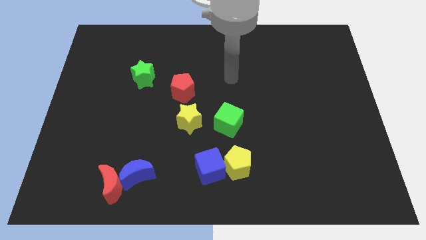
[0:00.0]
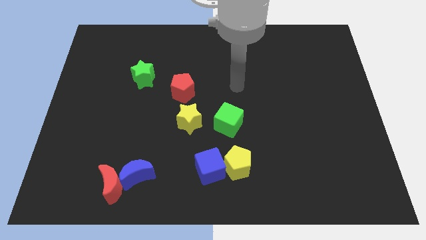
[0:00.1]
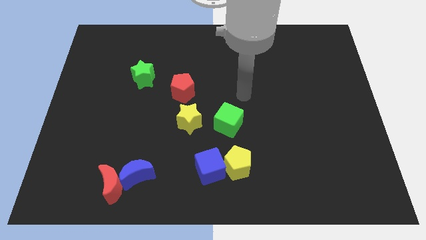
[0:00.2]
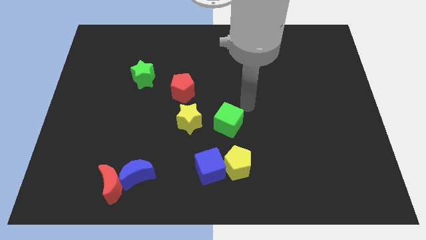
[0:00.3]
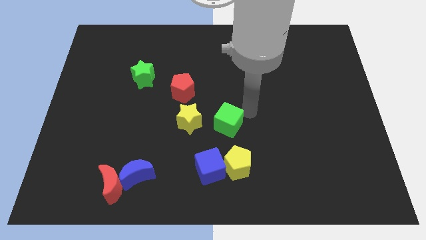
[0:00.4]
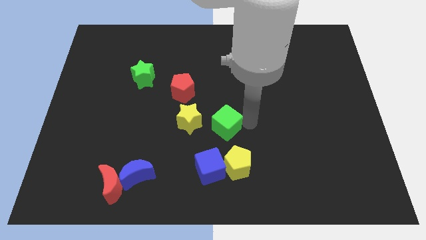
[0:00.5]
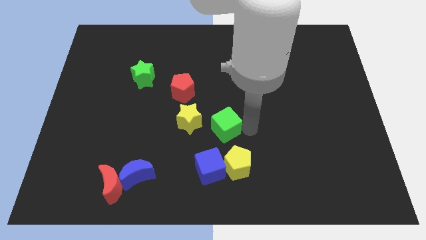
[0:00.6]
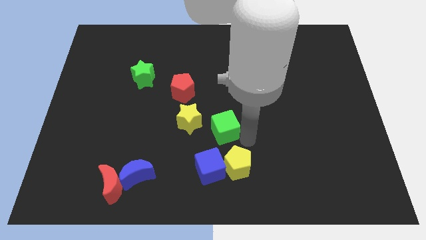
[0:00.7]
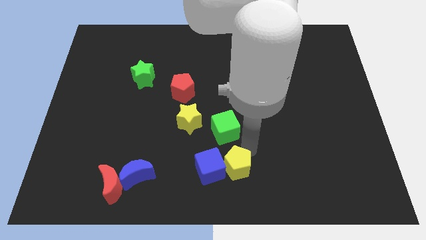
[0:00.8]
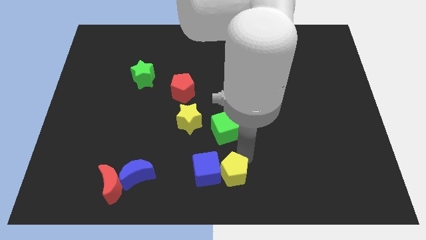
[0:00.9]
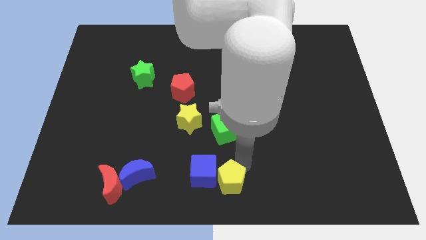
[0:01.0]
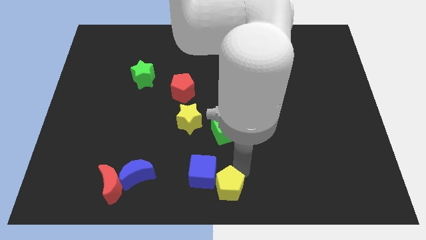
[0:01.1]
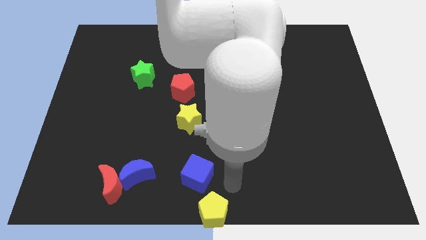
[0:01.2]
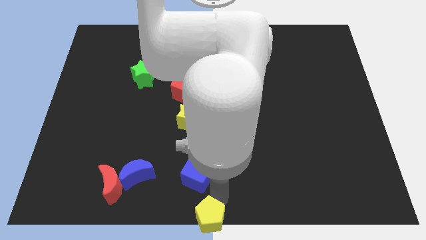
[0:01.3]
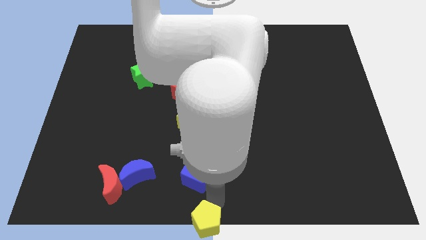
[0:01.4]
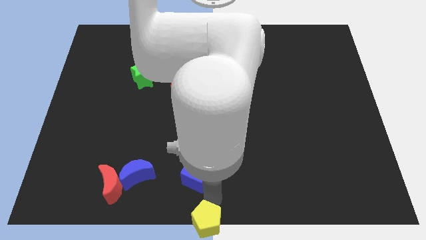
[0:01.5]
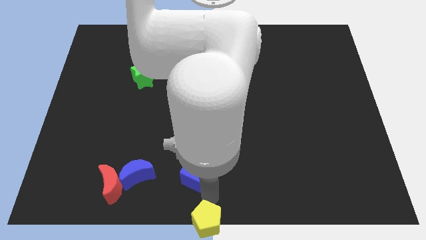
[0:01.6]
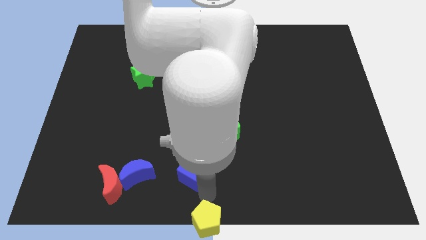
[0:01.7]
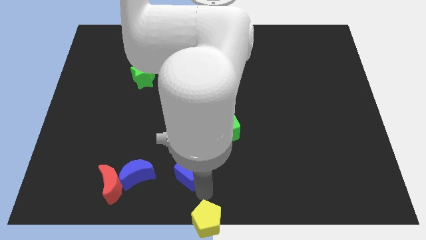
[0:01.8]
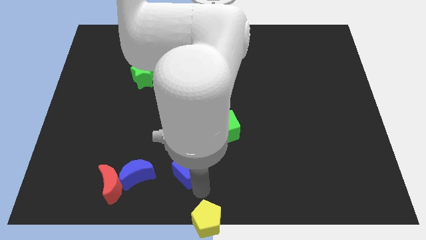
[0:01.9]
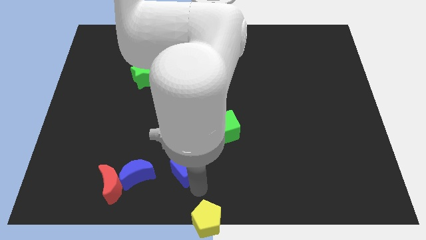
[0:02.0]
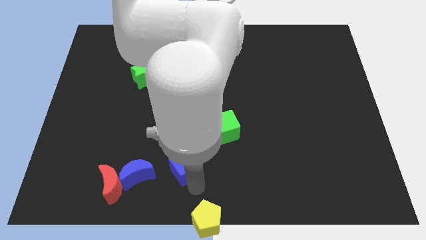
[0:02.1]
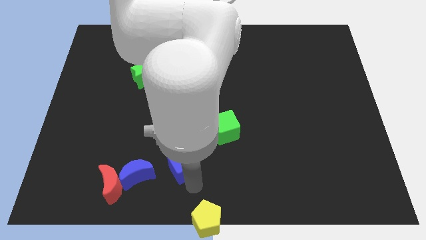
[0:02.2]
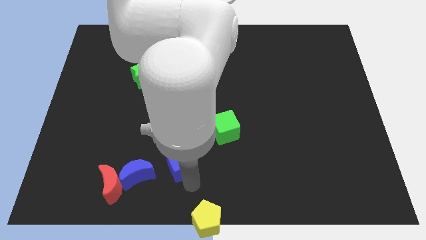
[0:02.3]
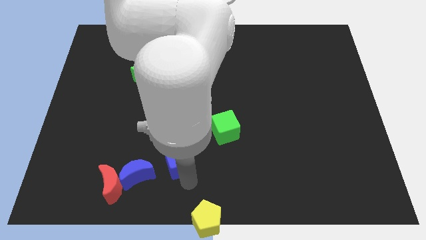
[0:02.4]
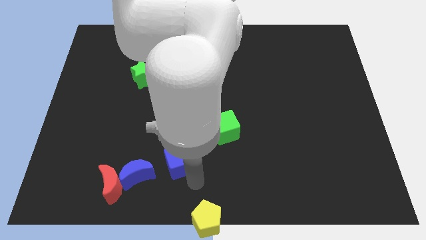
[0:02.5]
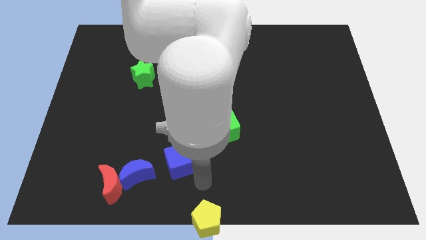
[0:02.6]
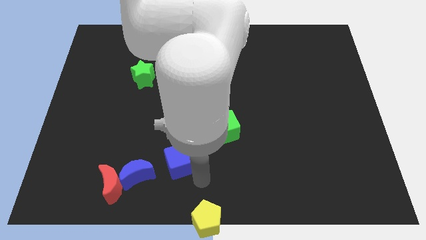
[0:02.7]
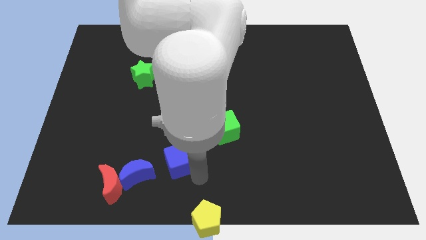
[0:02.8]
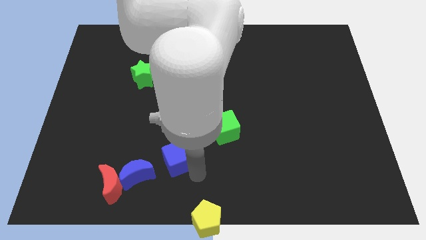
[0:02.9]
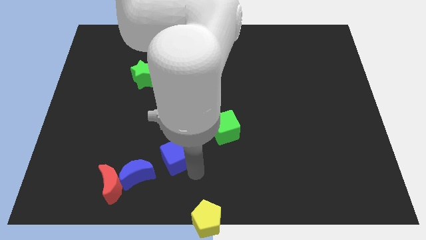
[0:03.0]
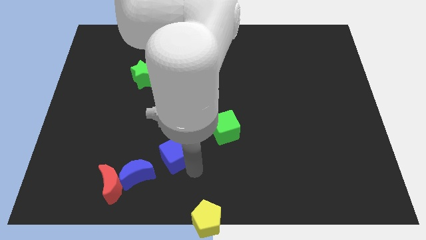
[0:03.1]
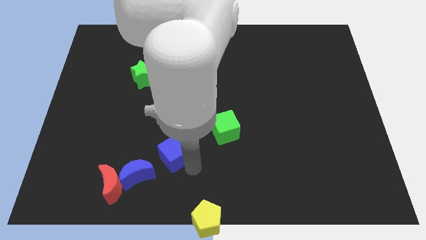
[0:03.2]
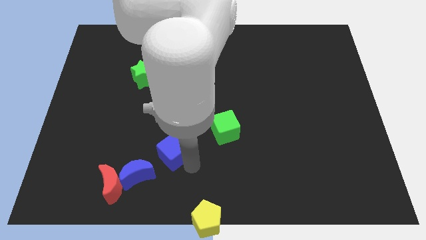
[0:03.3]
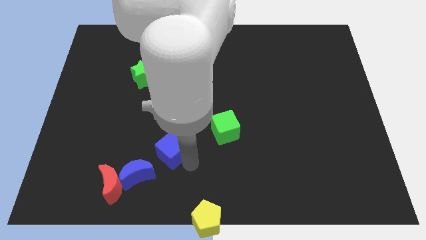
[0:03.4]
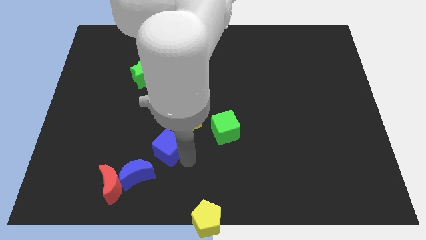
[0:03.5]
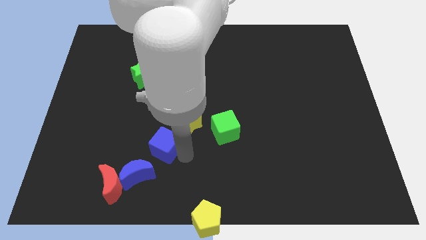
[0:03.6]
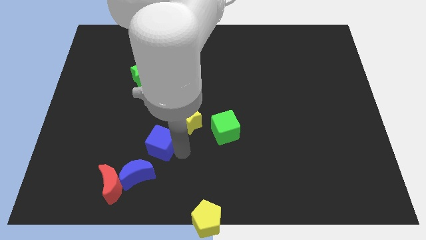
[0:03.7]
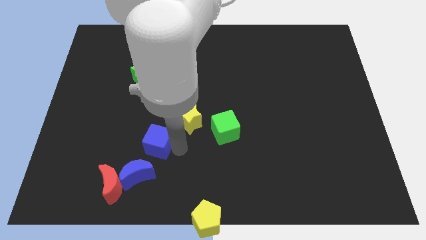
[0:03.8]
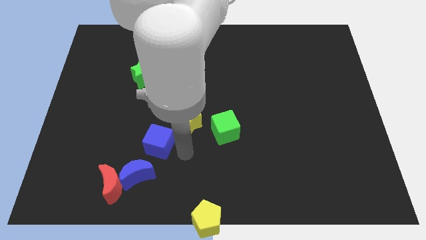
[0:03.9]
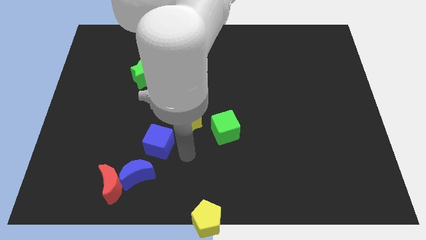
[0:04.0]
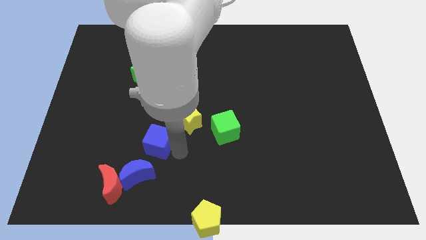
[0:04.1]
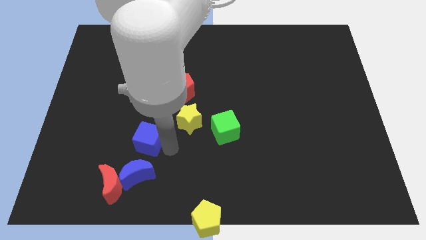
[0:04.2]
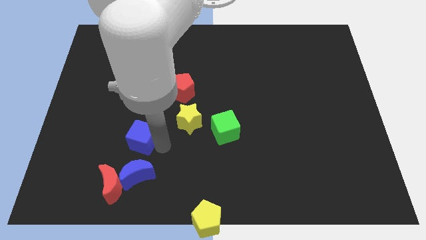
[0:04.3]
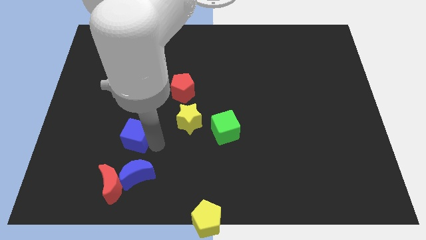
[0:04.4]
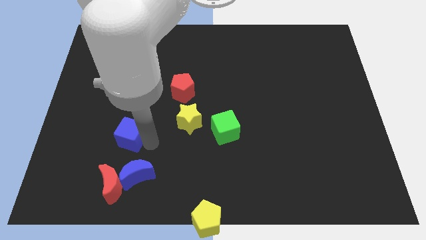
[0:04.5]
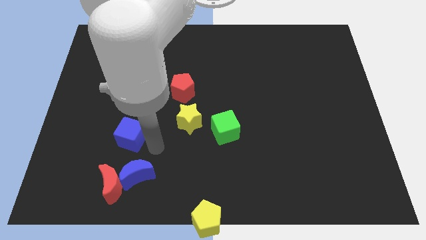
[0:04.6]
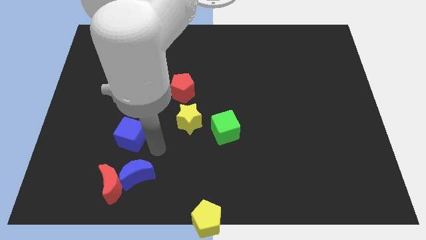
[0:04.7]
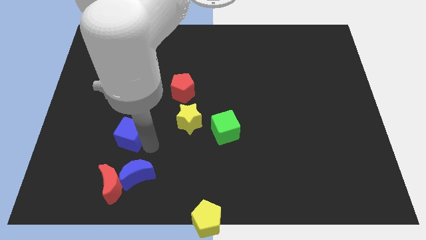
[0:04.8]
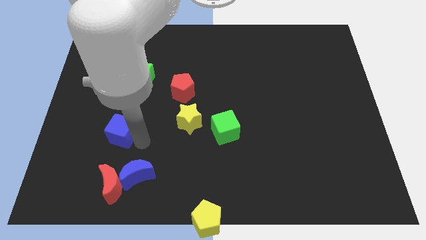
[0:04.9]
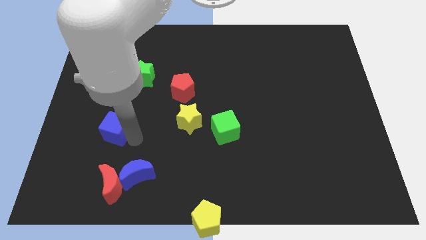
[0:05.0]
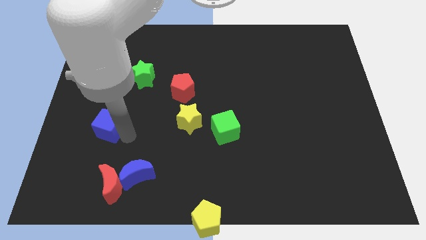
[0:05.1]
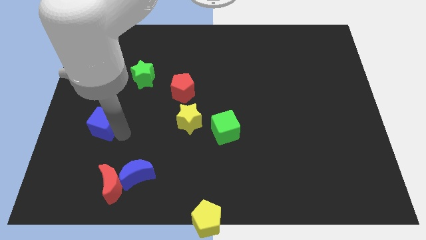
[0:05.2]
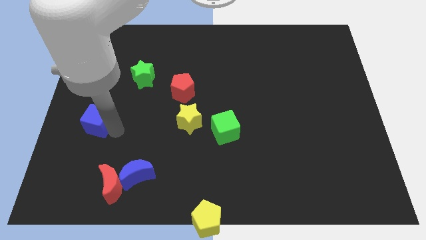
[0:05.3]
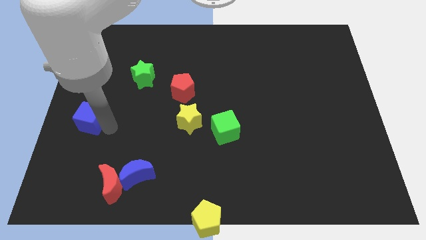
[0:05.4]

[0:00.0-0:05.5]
put the blue cube to the left side
